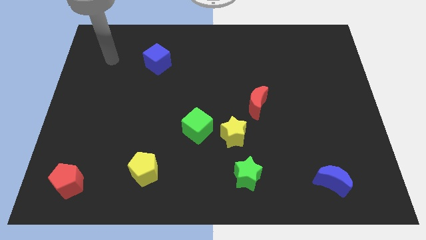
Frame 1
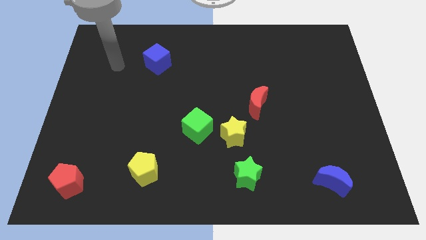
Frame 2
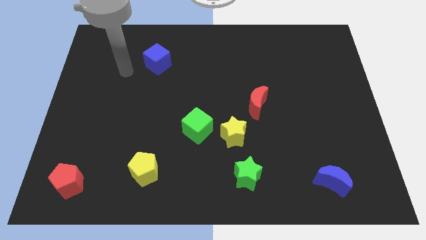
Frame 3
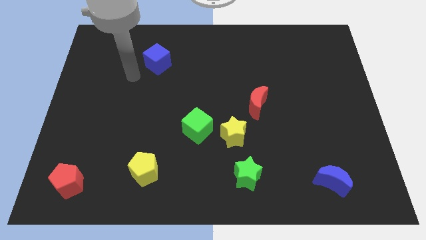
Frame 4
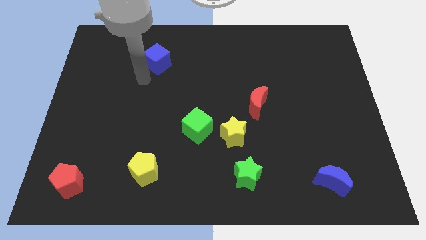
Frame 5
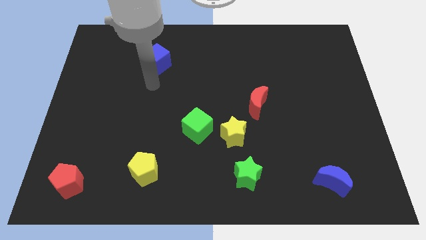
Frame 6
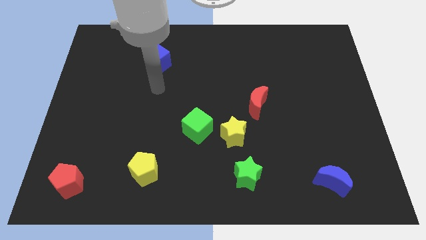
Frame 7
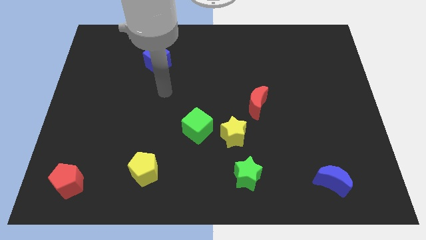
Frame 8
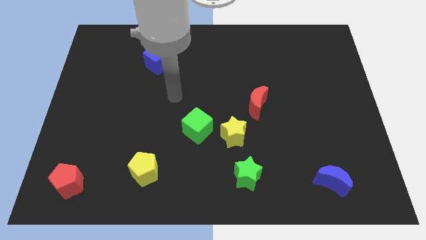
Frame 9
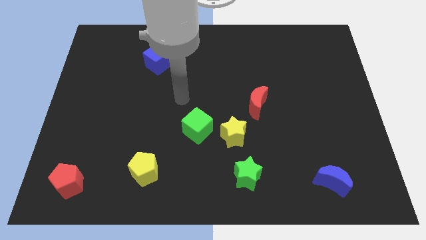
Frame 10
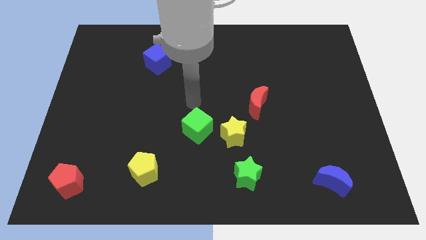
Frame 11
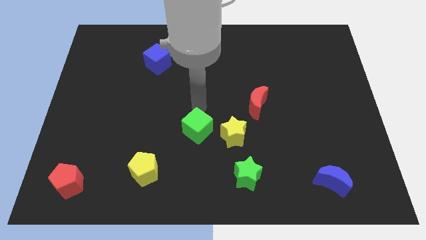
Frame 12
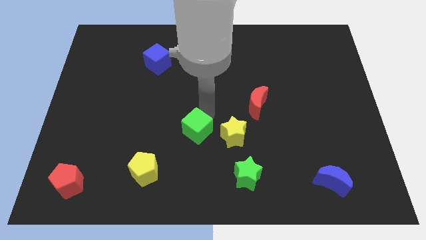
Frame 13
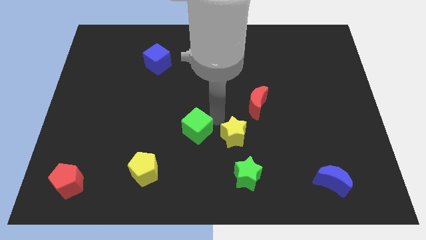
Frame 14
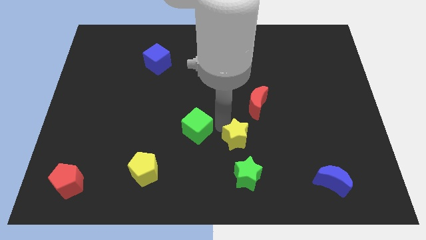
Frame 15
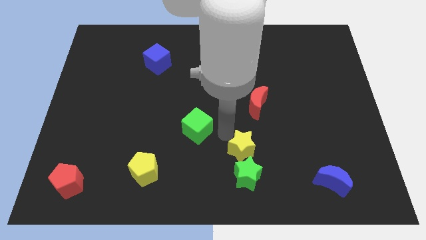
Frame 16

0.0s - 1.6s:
move the green cube away from the yellow star

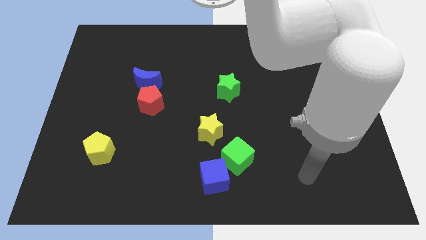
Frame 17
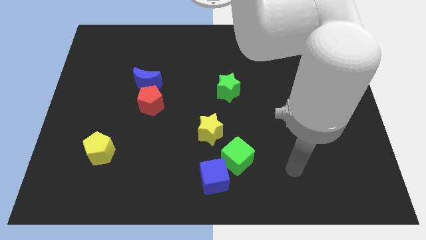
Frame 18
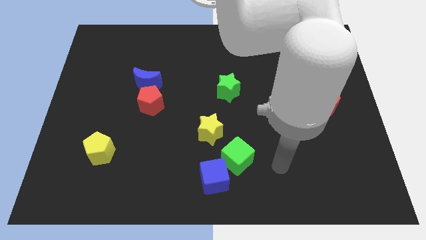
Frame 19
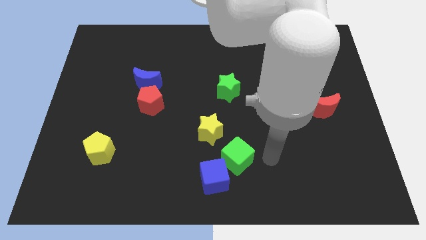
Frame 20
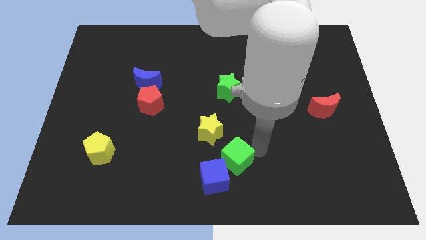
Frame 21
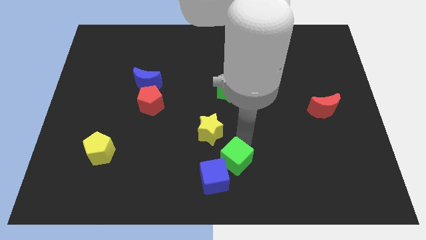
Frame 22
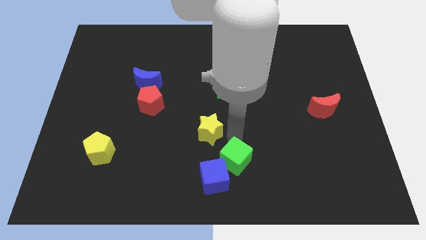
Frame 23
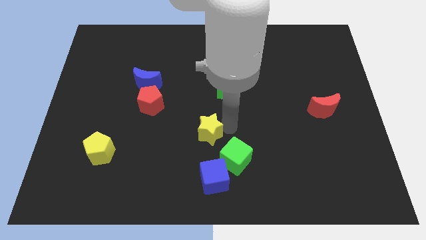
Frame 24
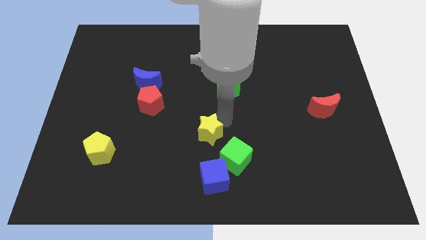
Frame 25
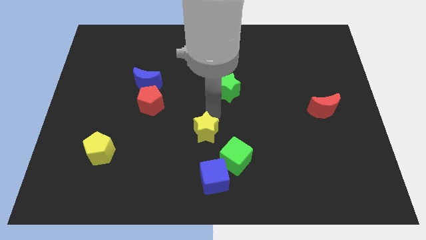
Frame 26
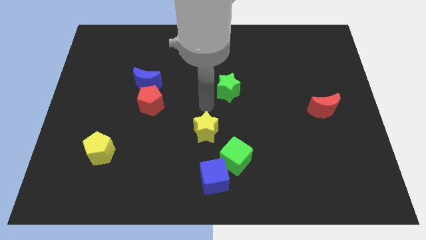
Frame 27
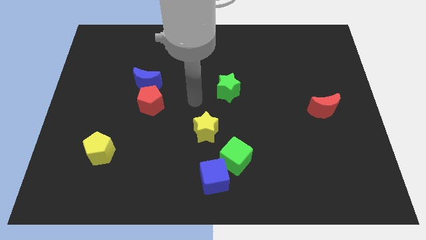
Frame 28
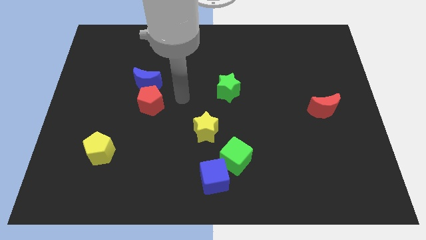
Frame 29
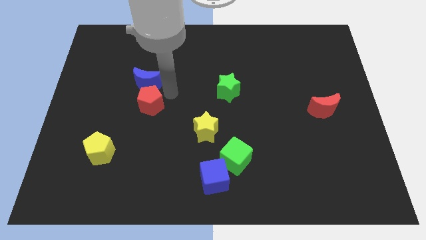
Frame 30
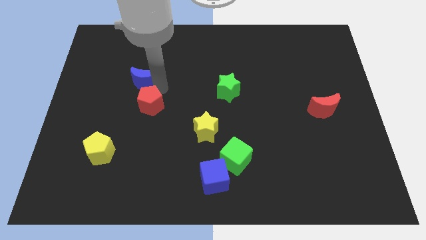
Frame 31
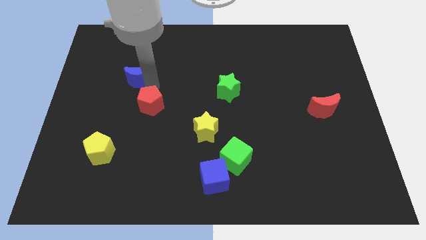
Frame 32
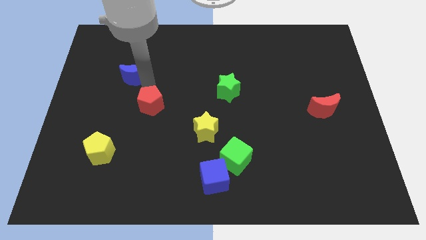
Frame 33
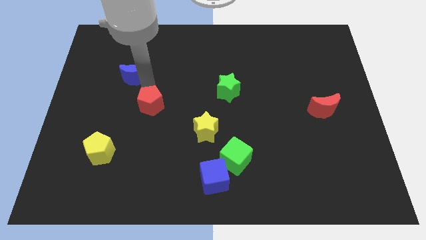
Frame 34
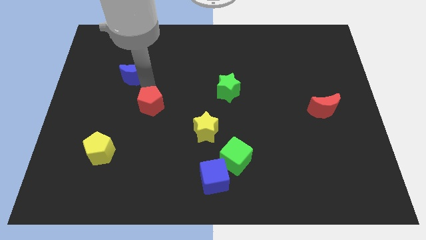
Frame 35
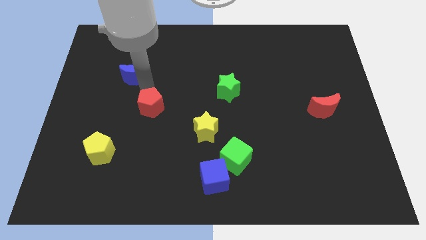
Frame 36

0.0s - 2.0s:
pull the red pentagon apart from the blue moon

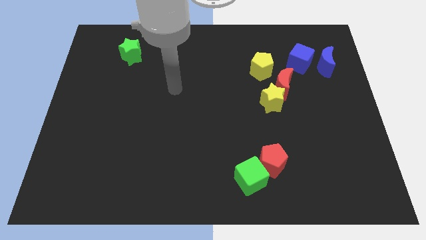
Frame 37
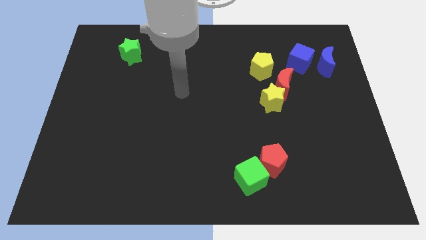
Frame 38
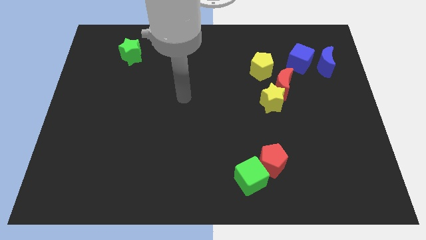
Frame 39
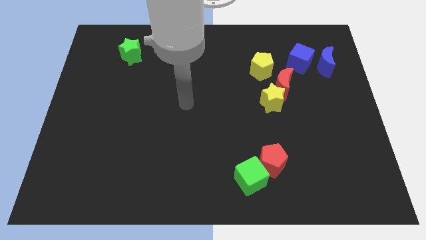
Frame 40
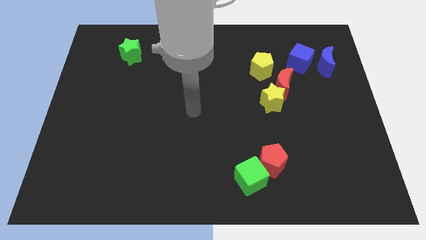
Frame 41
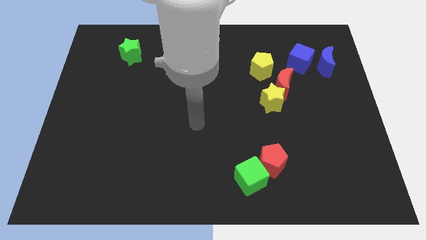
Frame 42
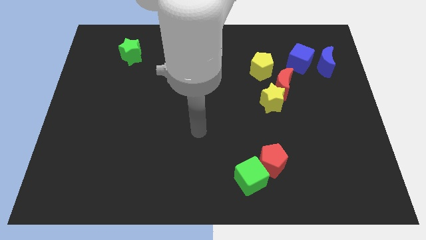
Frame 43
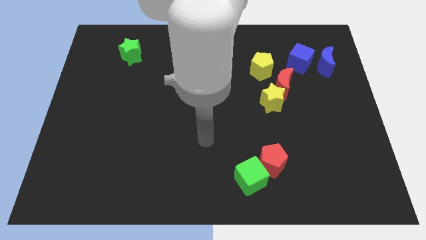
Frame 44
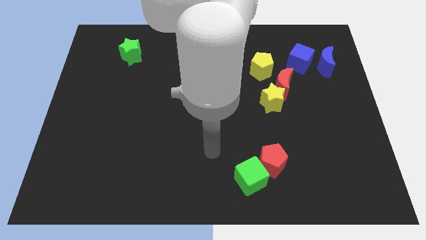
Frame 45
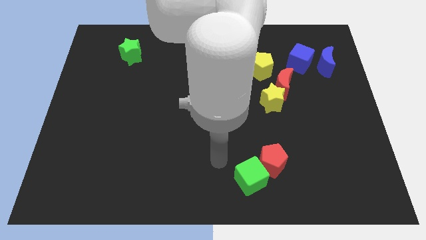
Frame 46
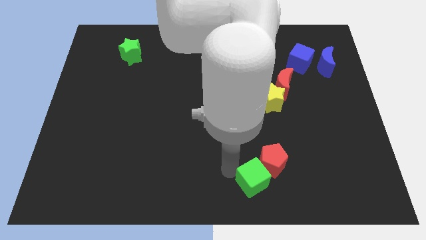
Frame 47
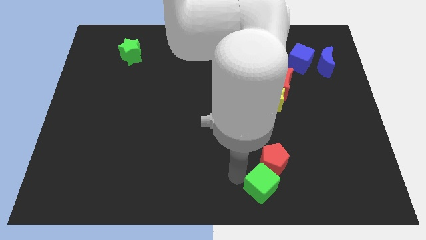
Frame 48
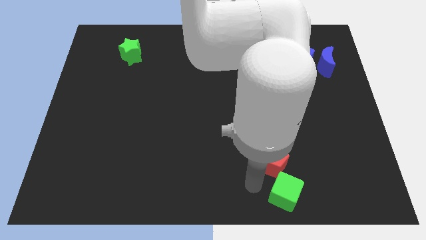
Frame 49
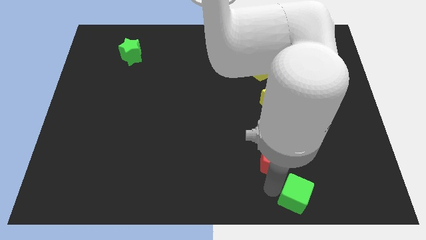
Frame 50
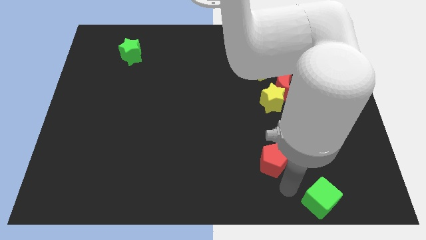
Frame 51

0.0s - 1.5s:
separate the red pentagon from the green cube

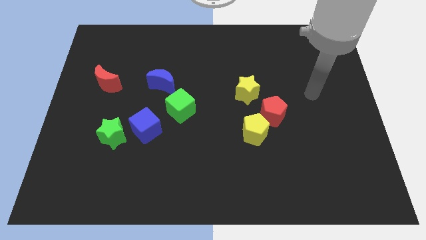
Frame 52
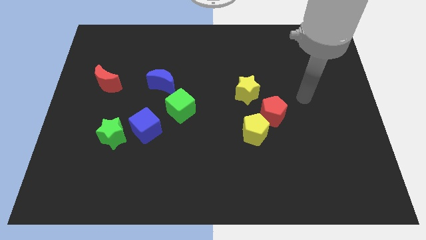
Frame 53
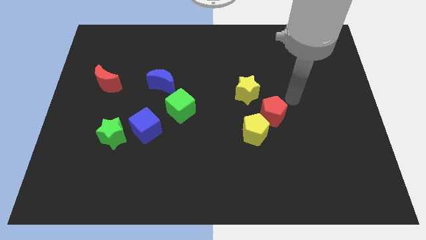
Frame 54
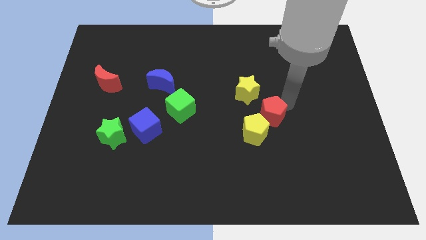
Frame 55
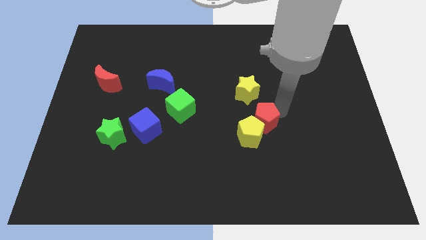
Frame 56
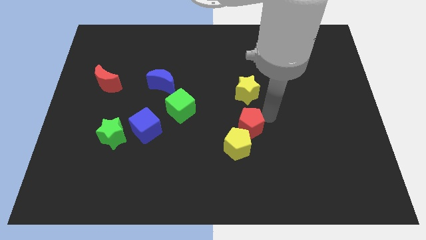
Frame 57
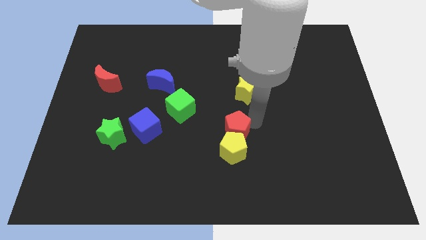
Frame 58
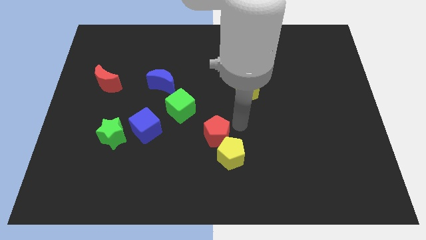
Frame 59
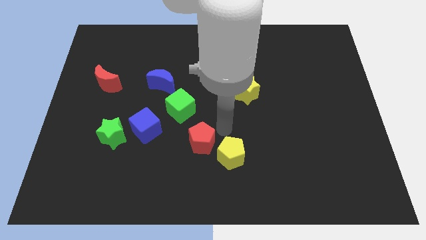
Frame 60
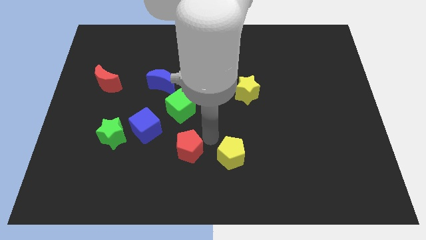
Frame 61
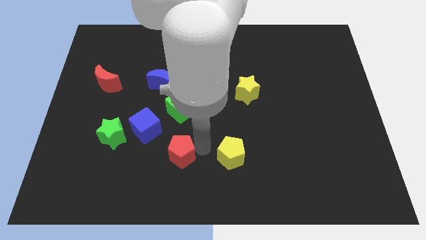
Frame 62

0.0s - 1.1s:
separate the yellow pentagon from the red pentagon

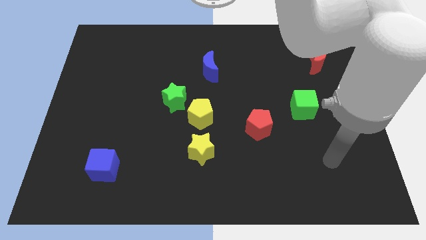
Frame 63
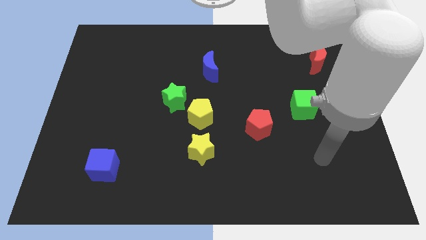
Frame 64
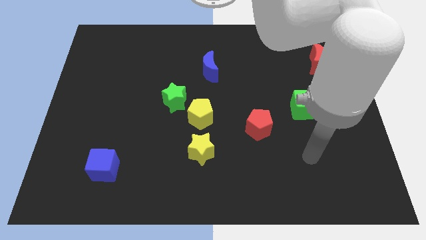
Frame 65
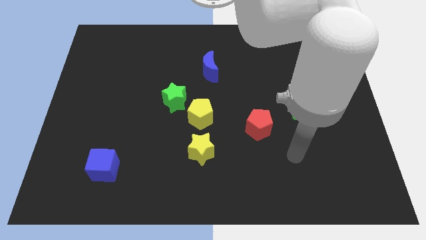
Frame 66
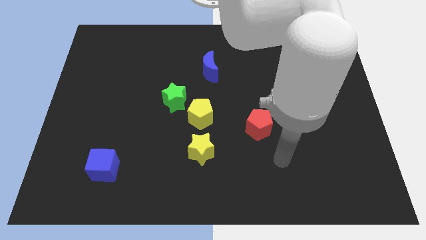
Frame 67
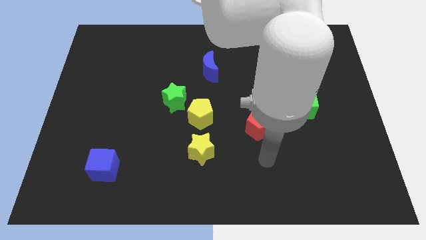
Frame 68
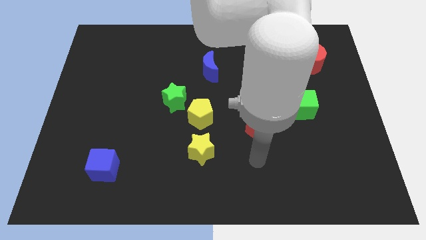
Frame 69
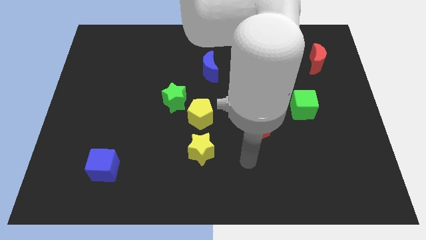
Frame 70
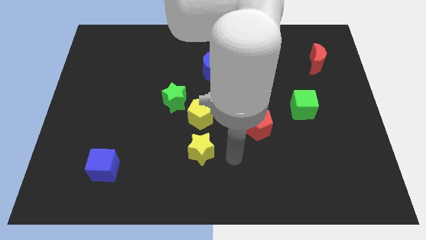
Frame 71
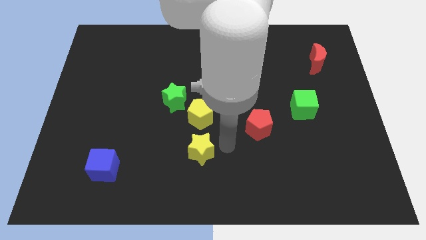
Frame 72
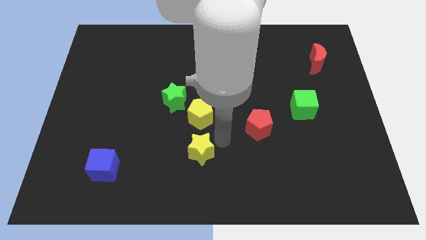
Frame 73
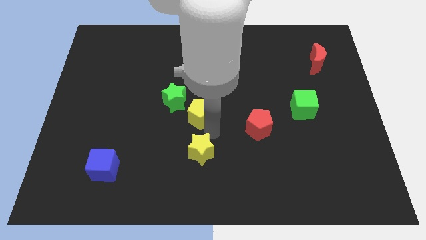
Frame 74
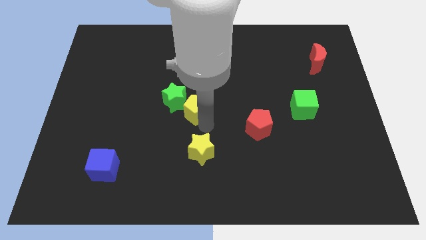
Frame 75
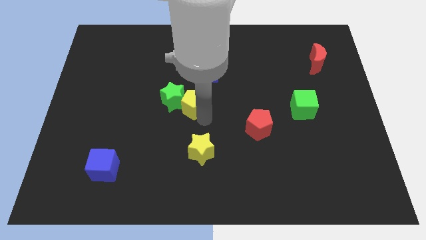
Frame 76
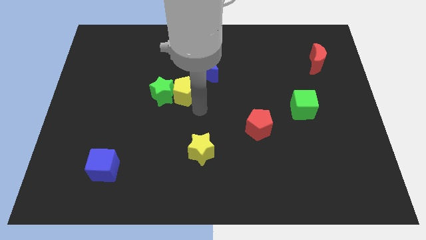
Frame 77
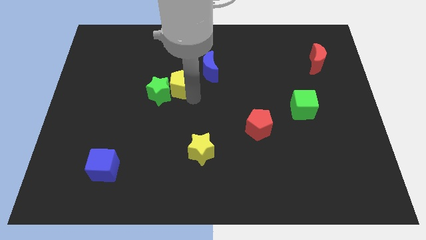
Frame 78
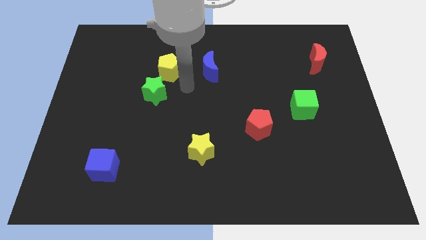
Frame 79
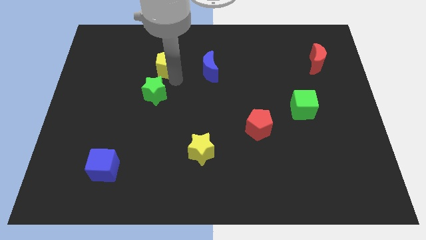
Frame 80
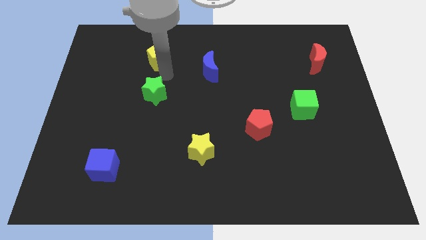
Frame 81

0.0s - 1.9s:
separate the green star from the yellow pentagon

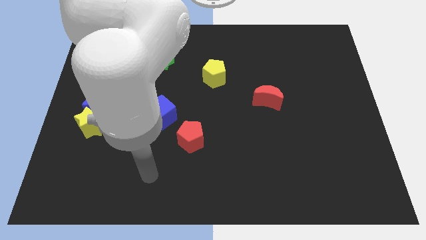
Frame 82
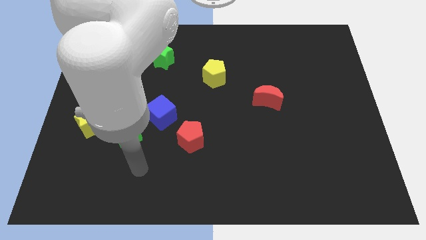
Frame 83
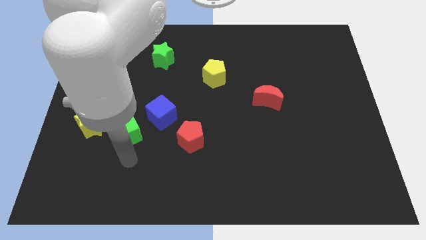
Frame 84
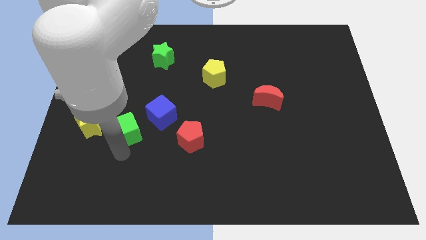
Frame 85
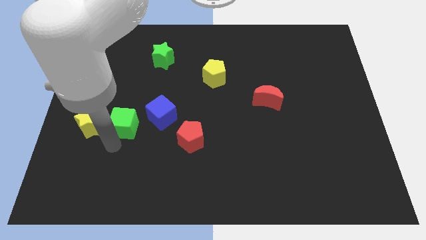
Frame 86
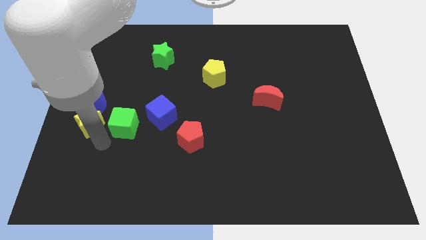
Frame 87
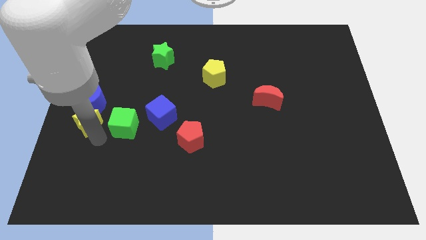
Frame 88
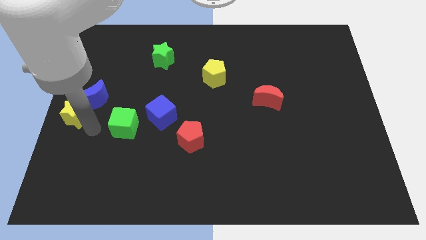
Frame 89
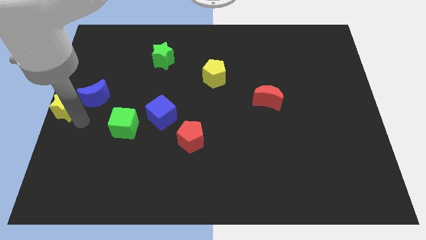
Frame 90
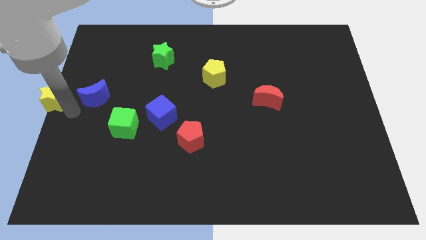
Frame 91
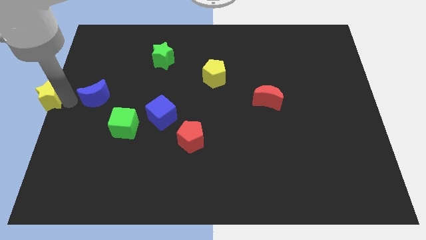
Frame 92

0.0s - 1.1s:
pull the blue moon apart from the yellow star

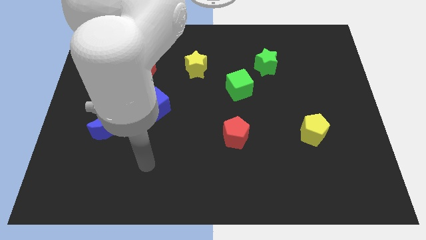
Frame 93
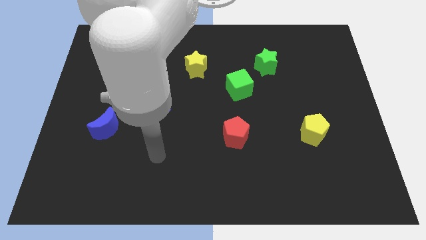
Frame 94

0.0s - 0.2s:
separate the green cube from the green star
